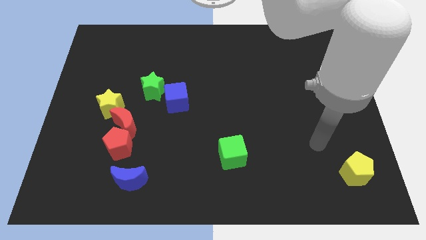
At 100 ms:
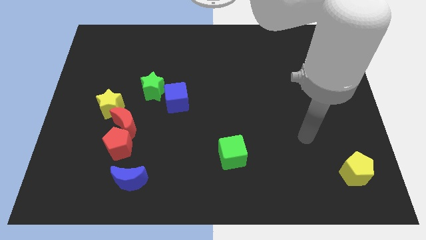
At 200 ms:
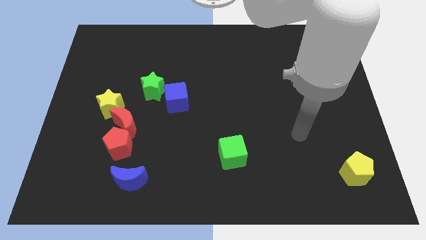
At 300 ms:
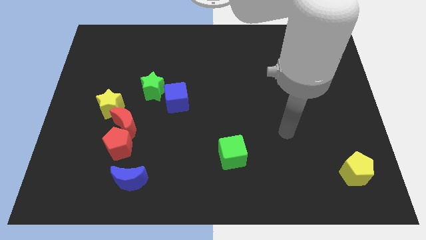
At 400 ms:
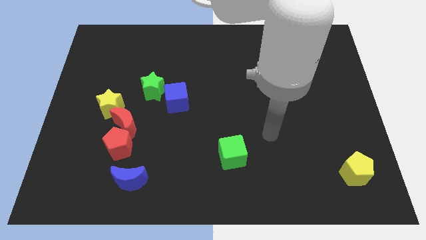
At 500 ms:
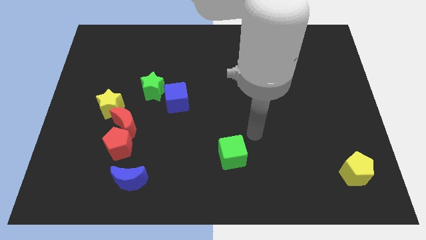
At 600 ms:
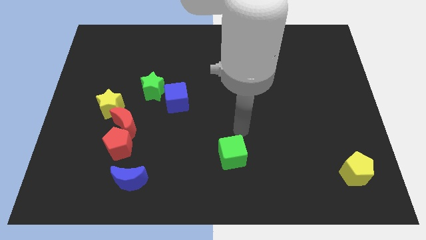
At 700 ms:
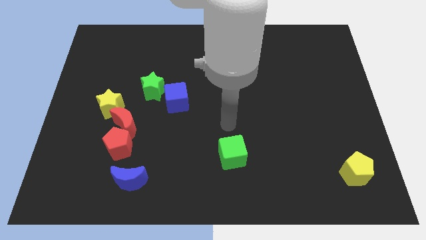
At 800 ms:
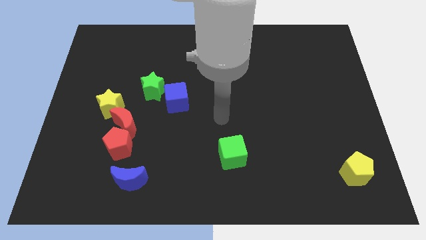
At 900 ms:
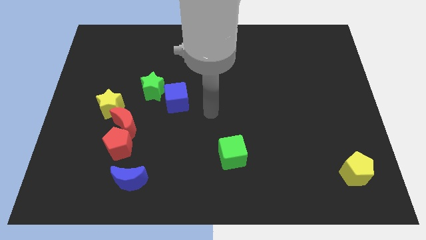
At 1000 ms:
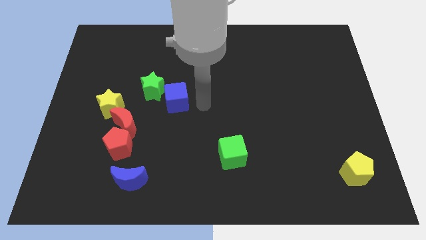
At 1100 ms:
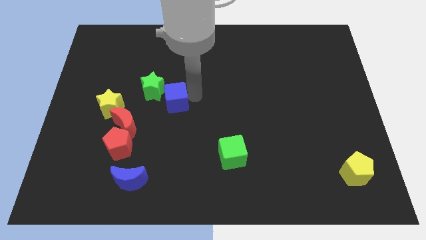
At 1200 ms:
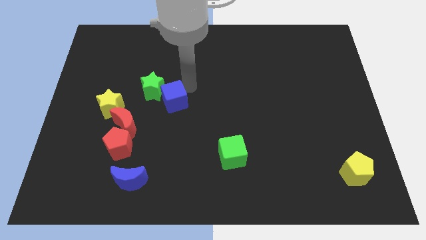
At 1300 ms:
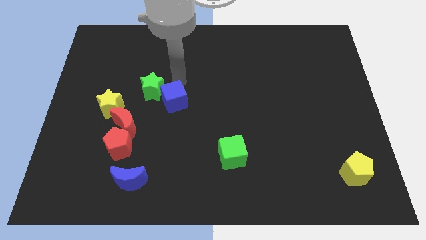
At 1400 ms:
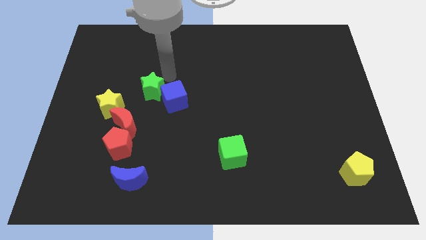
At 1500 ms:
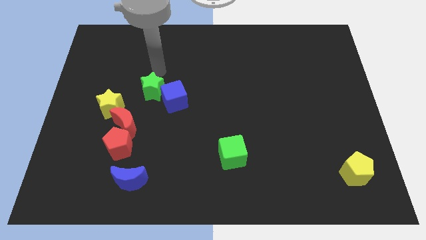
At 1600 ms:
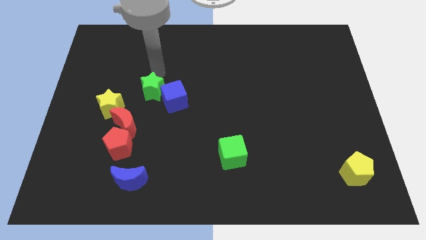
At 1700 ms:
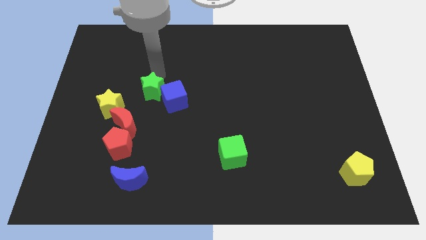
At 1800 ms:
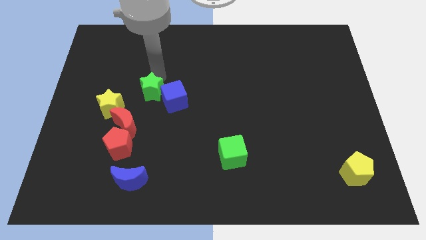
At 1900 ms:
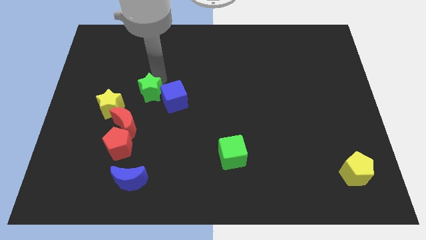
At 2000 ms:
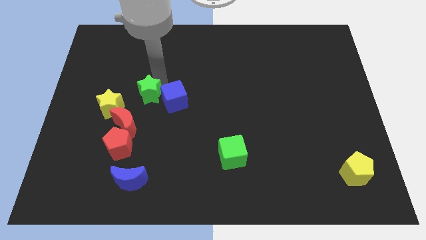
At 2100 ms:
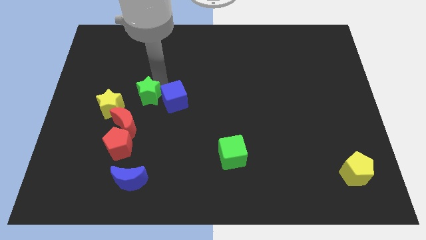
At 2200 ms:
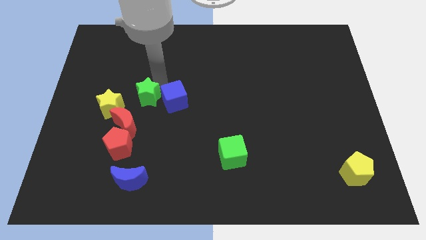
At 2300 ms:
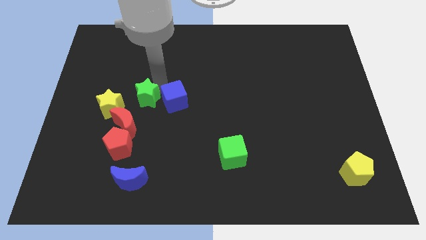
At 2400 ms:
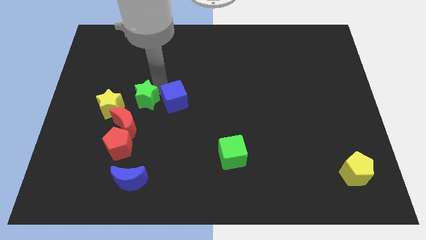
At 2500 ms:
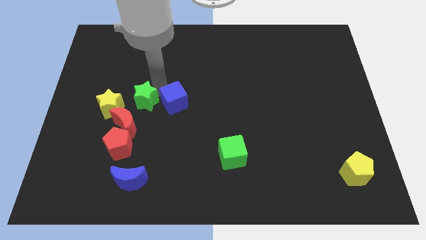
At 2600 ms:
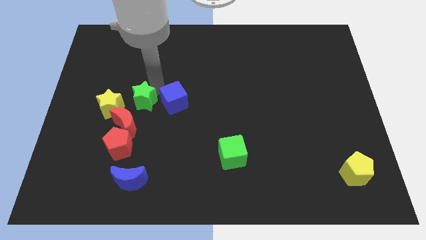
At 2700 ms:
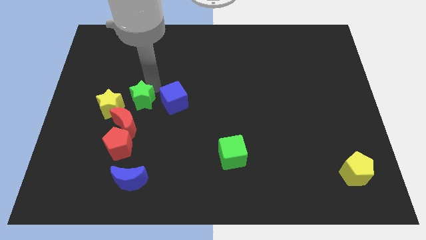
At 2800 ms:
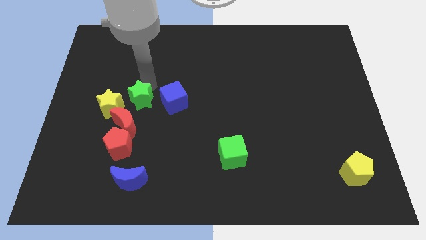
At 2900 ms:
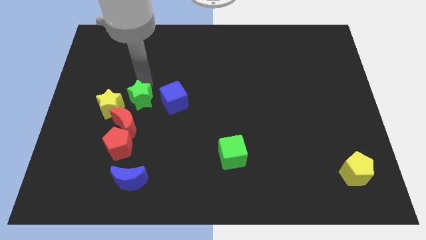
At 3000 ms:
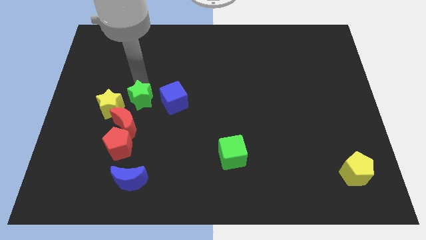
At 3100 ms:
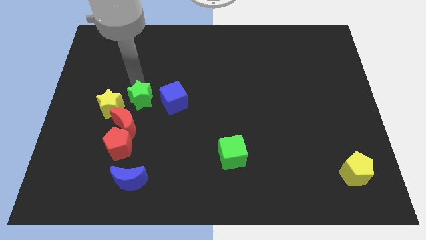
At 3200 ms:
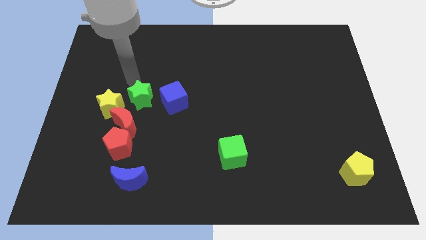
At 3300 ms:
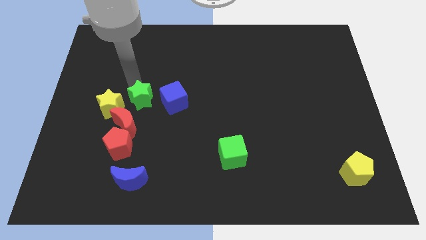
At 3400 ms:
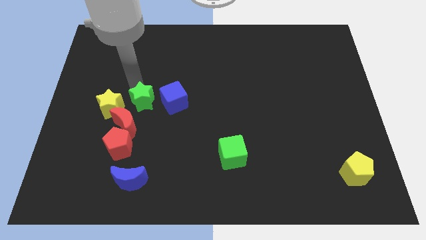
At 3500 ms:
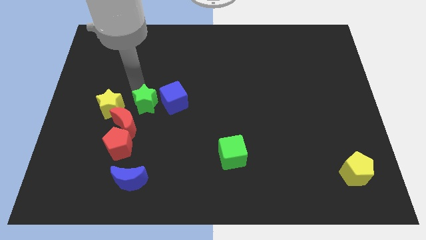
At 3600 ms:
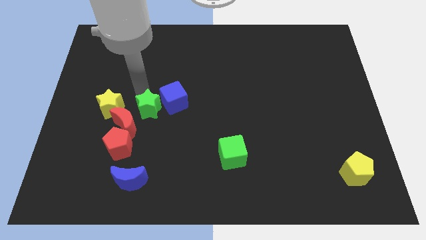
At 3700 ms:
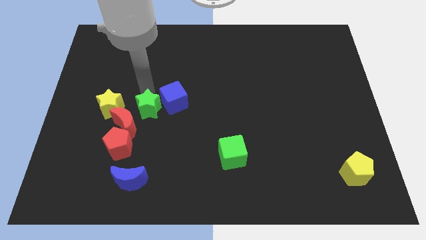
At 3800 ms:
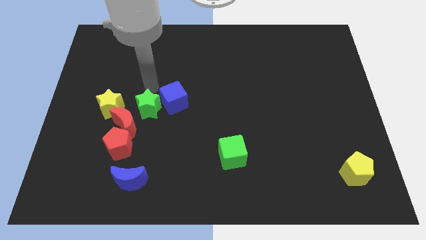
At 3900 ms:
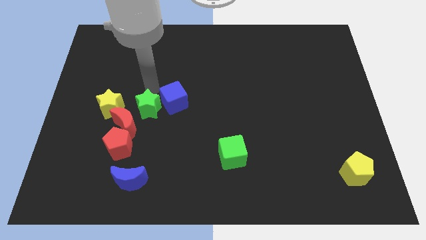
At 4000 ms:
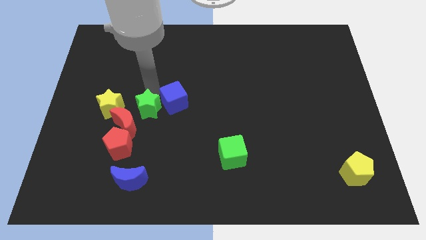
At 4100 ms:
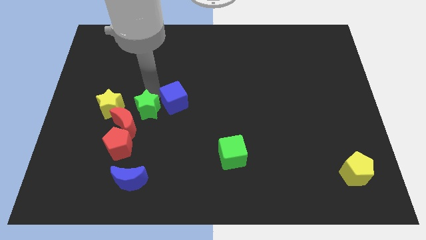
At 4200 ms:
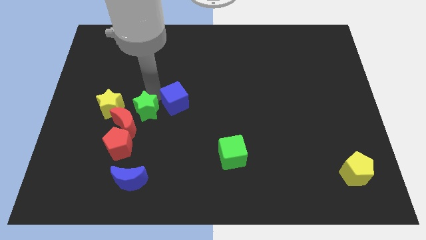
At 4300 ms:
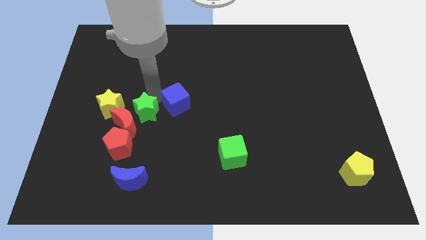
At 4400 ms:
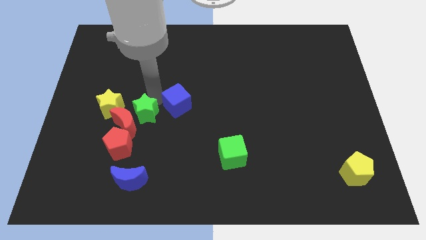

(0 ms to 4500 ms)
slide the green star down slightly

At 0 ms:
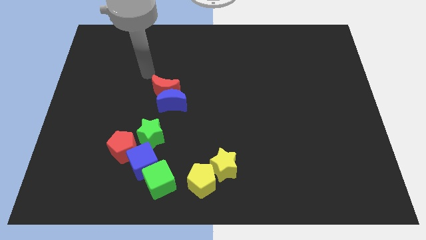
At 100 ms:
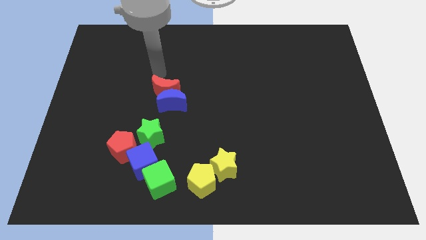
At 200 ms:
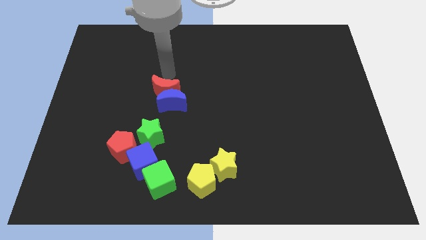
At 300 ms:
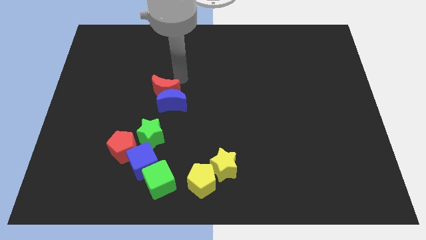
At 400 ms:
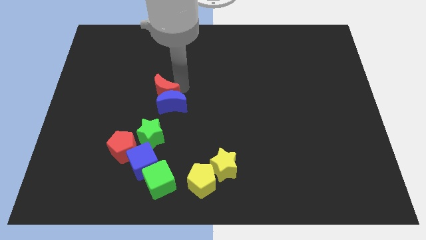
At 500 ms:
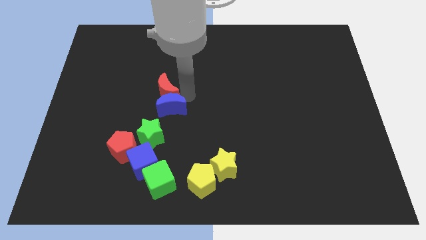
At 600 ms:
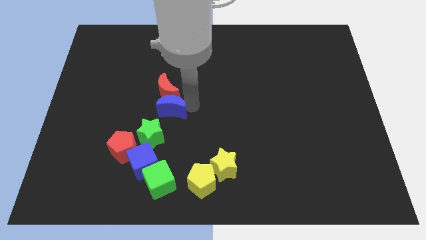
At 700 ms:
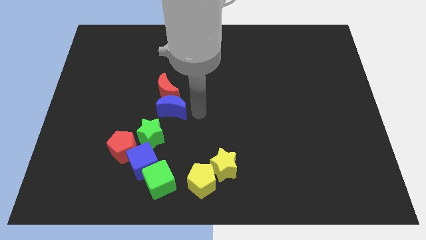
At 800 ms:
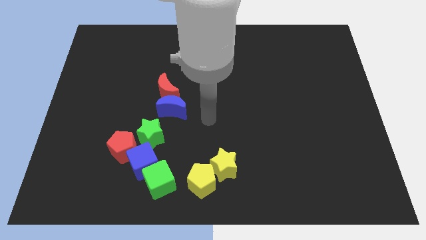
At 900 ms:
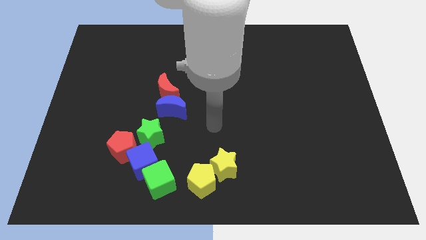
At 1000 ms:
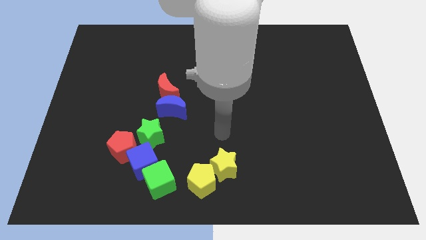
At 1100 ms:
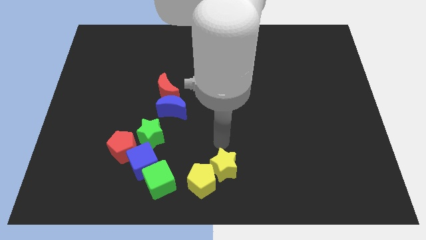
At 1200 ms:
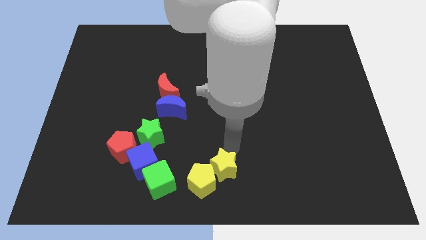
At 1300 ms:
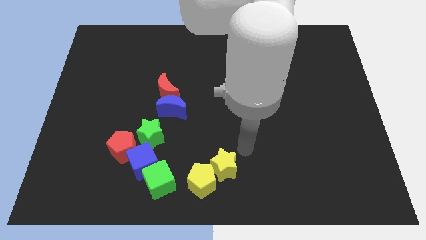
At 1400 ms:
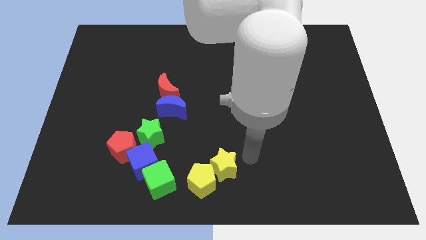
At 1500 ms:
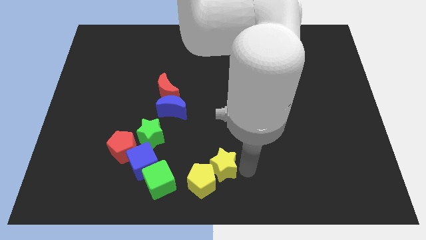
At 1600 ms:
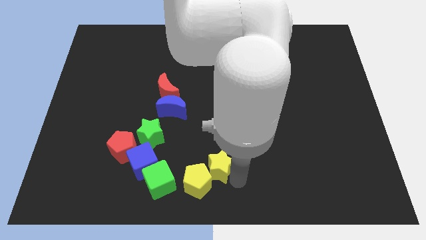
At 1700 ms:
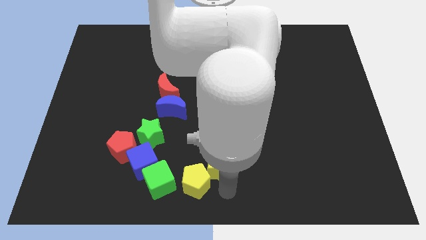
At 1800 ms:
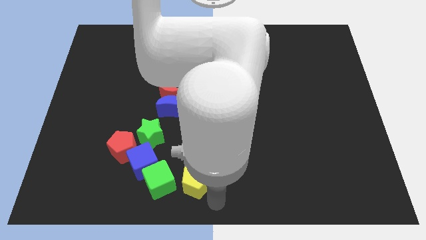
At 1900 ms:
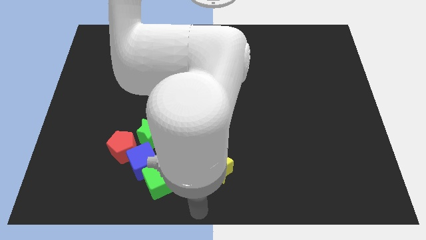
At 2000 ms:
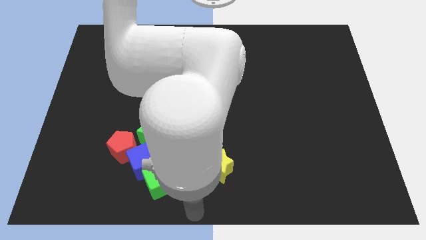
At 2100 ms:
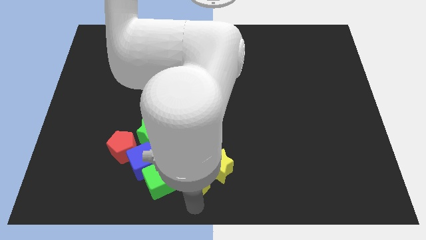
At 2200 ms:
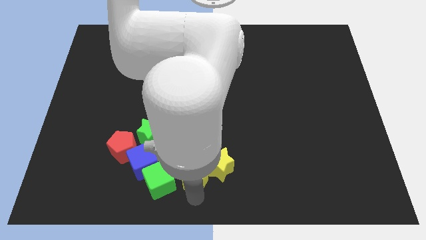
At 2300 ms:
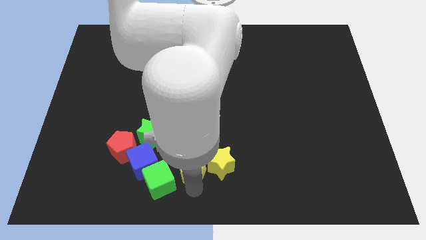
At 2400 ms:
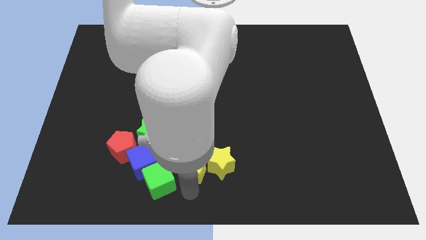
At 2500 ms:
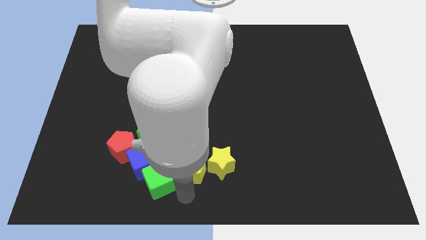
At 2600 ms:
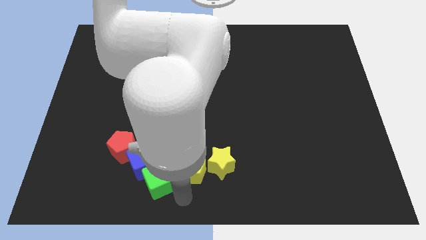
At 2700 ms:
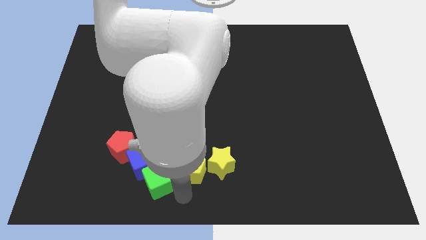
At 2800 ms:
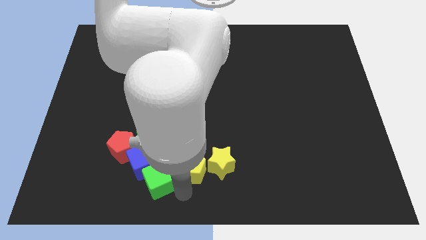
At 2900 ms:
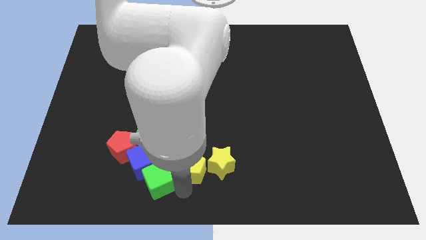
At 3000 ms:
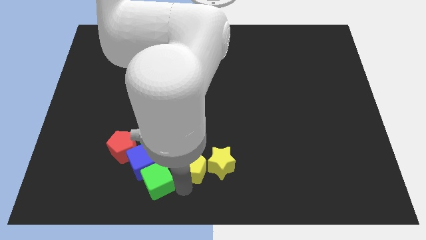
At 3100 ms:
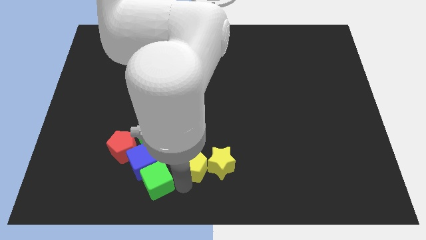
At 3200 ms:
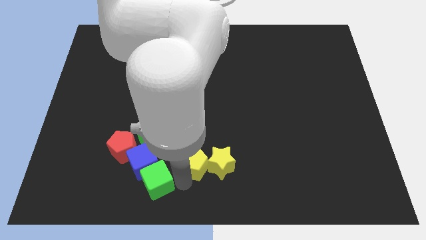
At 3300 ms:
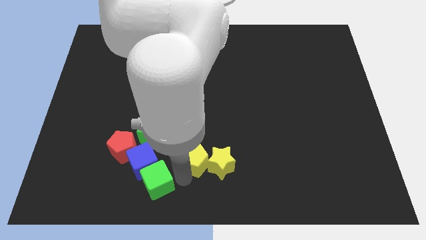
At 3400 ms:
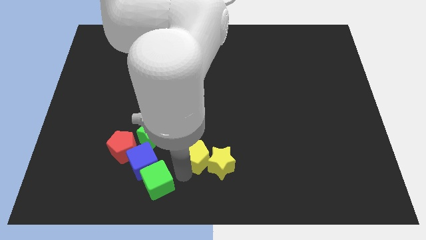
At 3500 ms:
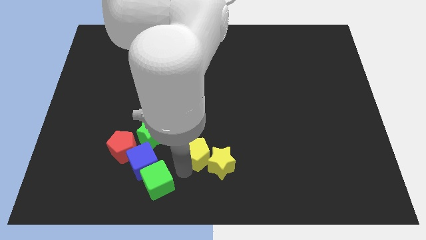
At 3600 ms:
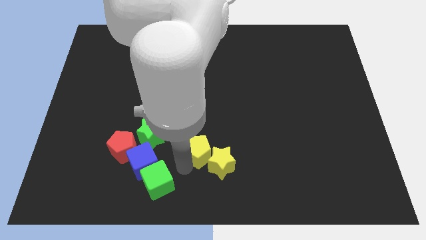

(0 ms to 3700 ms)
slide the yellow pentagon up a little bit

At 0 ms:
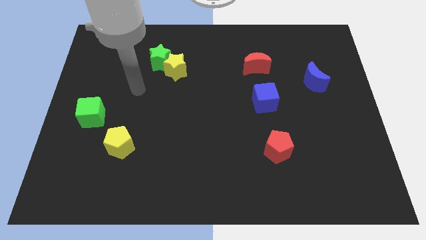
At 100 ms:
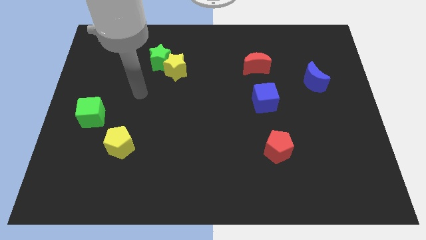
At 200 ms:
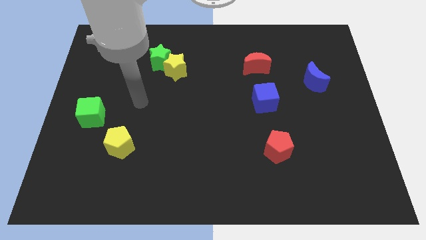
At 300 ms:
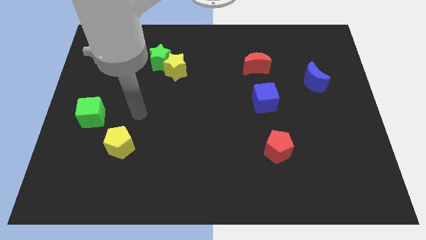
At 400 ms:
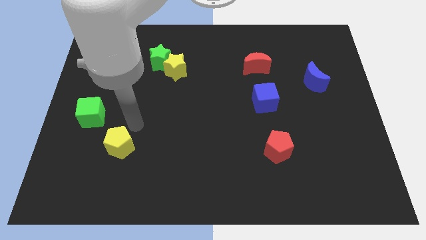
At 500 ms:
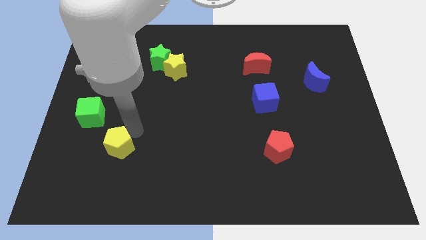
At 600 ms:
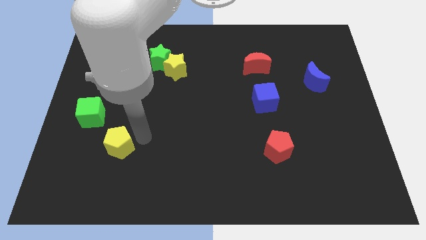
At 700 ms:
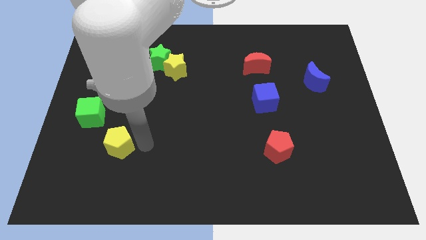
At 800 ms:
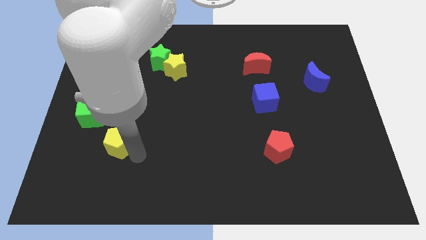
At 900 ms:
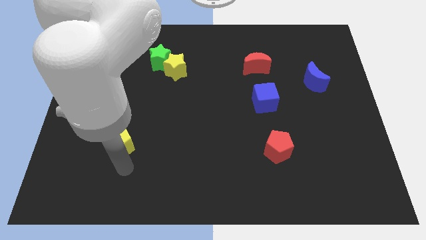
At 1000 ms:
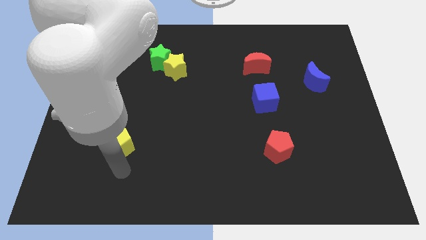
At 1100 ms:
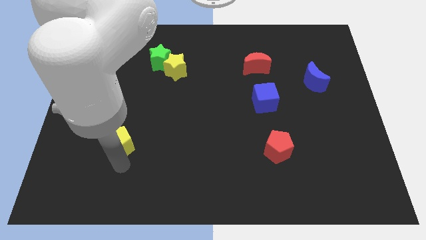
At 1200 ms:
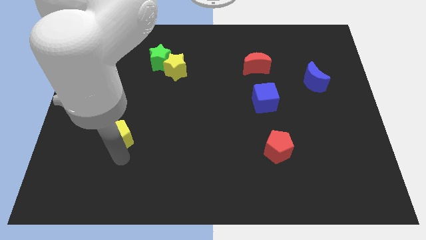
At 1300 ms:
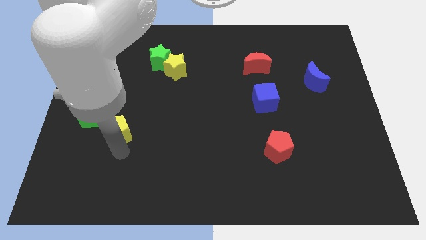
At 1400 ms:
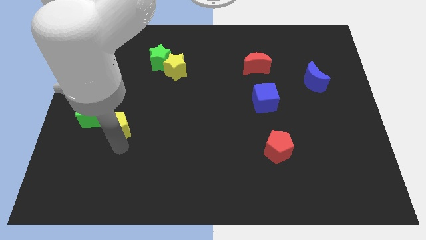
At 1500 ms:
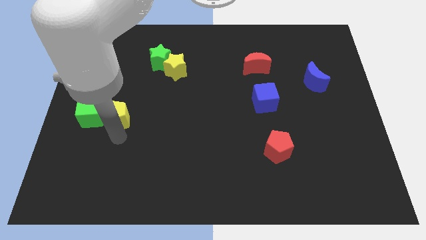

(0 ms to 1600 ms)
move the yellow pentagon upwards a little bit
